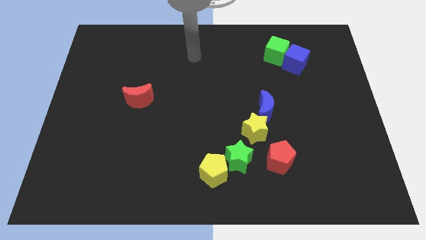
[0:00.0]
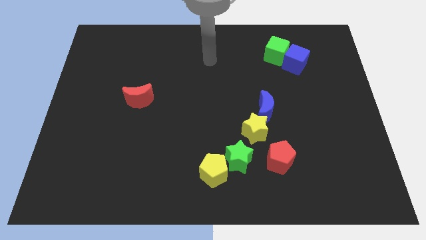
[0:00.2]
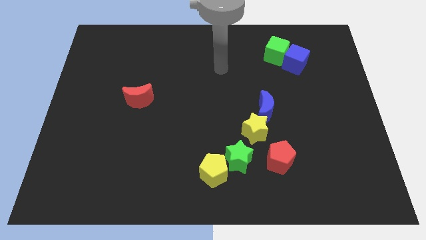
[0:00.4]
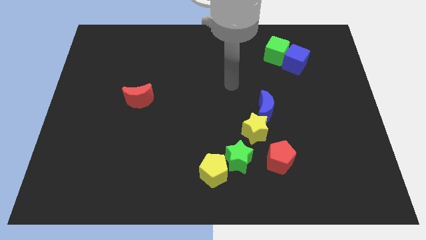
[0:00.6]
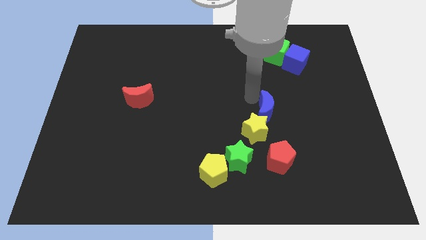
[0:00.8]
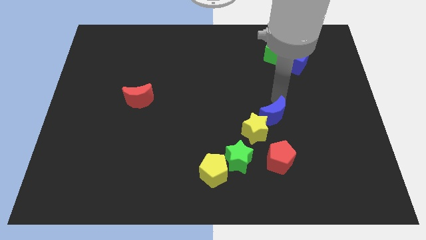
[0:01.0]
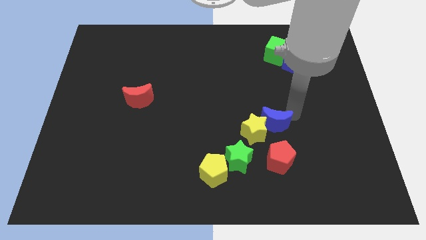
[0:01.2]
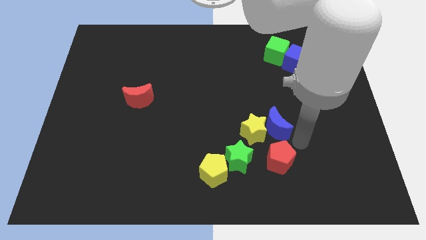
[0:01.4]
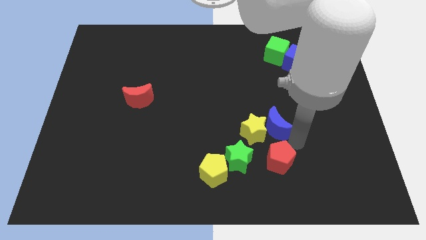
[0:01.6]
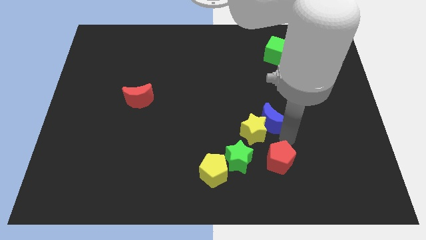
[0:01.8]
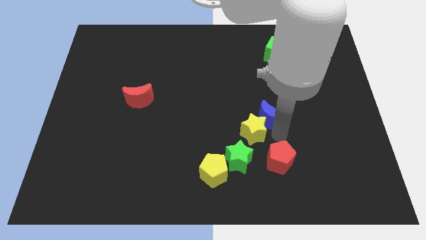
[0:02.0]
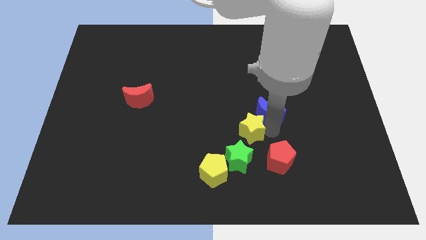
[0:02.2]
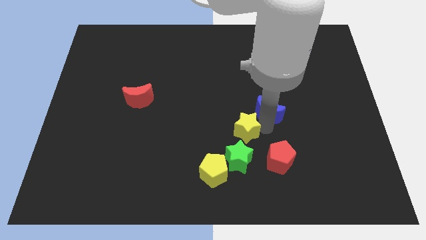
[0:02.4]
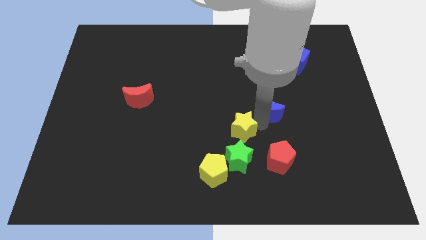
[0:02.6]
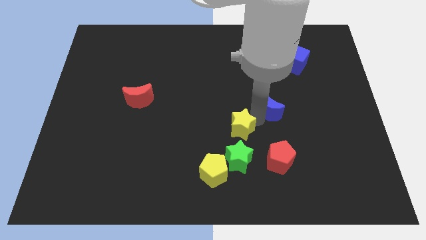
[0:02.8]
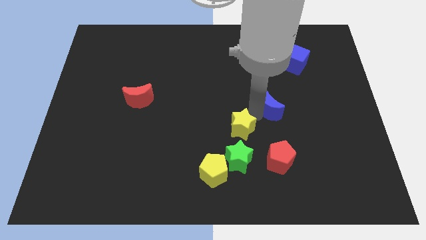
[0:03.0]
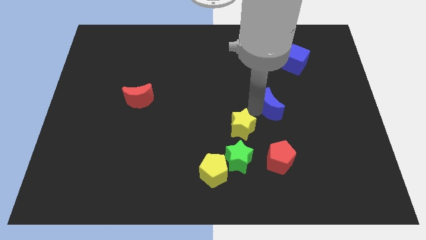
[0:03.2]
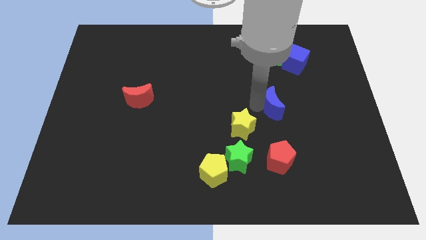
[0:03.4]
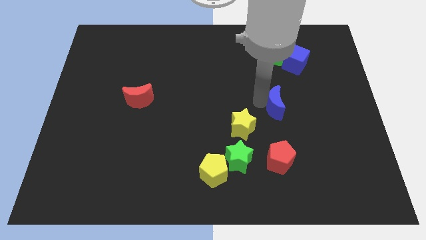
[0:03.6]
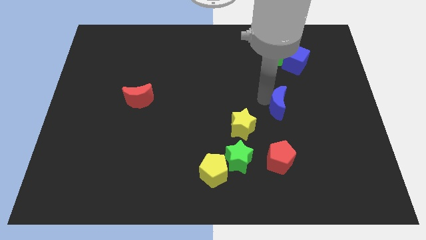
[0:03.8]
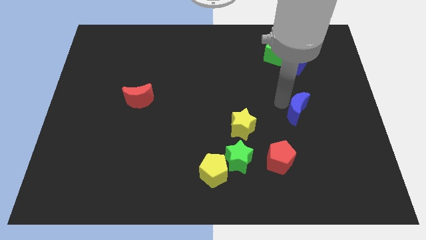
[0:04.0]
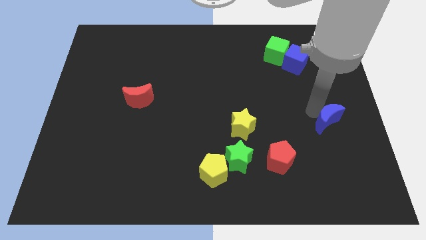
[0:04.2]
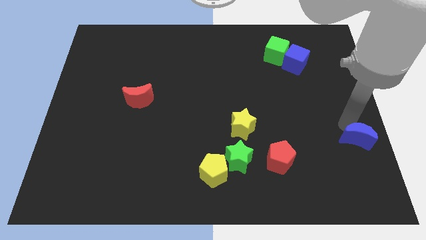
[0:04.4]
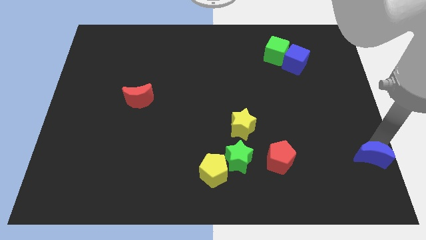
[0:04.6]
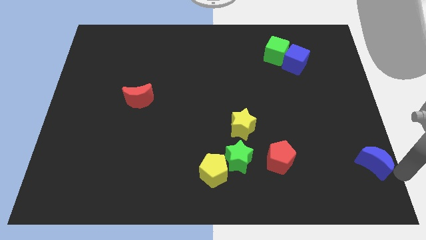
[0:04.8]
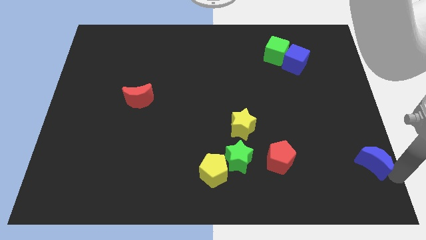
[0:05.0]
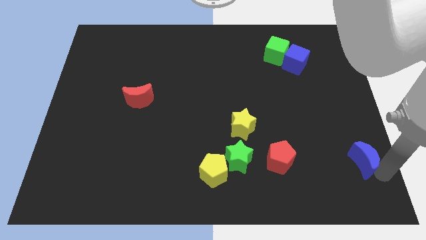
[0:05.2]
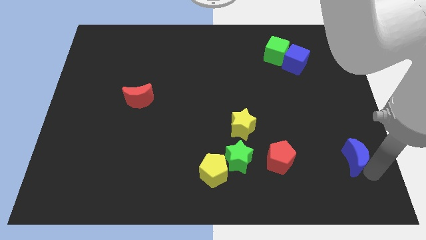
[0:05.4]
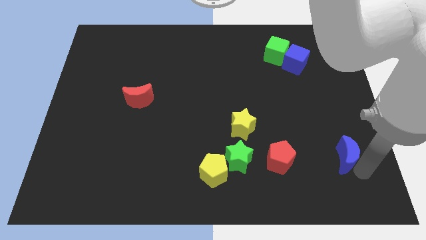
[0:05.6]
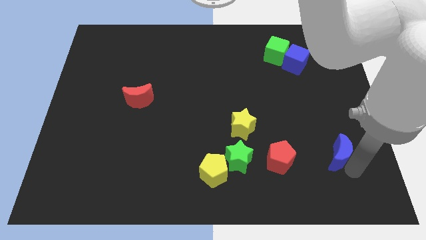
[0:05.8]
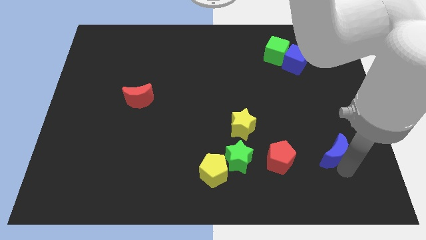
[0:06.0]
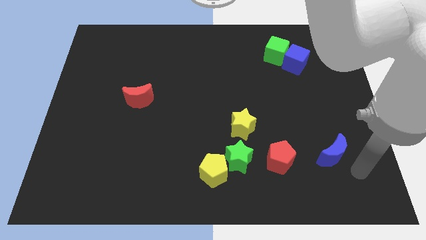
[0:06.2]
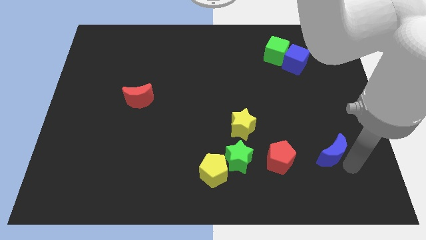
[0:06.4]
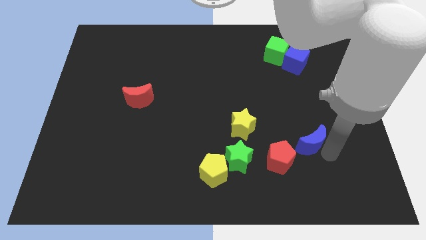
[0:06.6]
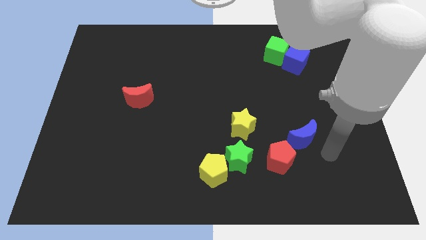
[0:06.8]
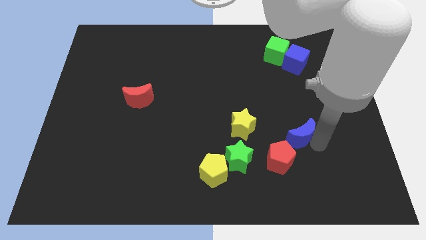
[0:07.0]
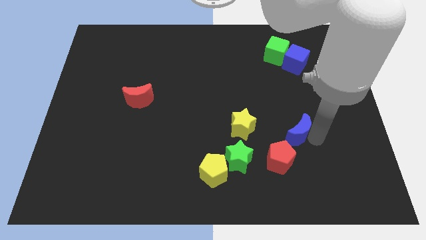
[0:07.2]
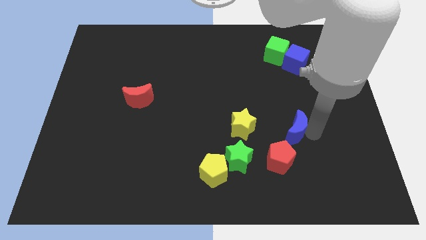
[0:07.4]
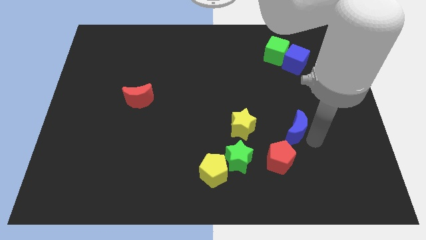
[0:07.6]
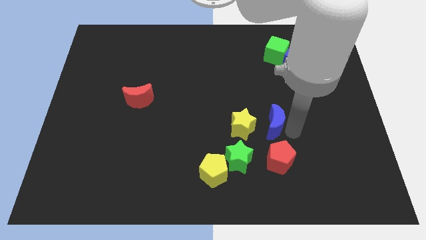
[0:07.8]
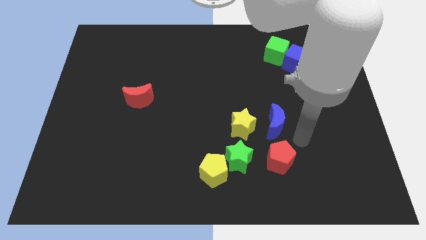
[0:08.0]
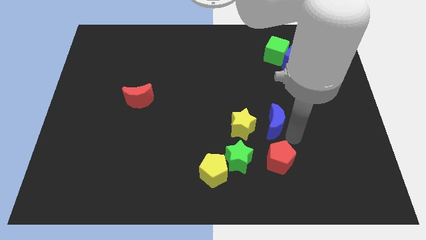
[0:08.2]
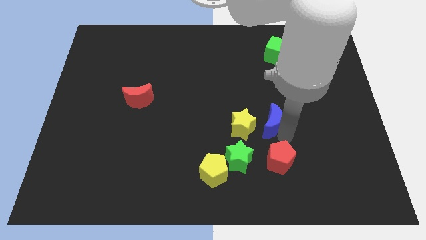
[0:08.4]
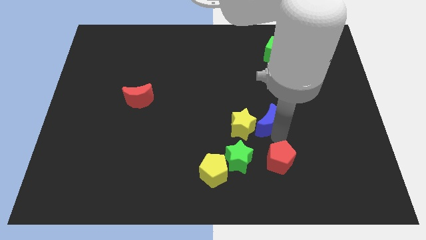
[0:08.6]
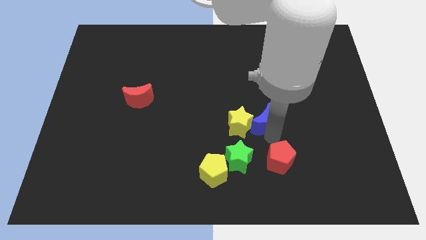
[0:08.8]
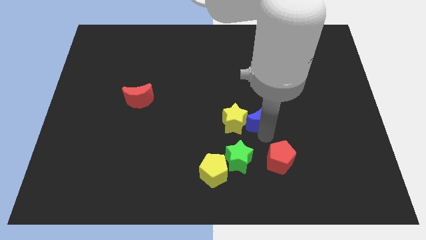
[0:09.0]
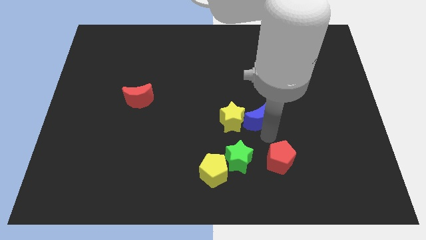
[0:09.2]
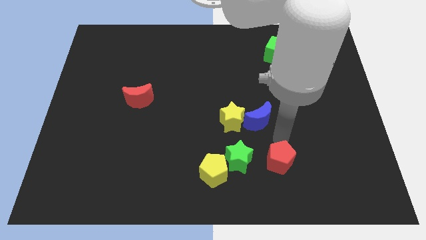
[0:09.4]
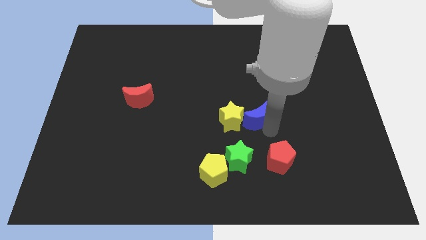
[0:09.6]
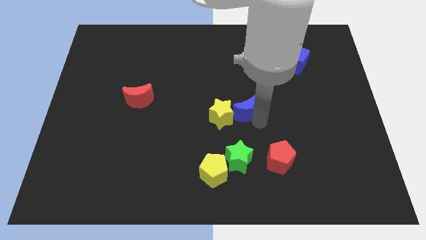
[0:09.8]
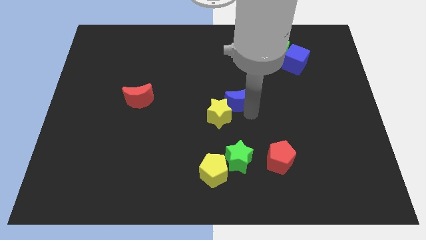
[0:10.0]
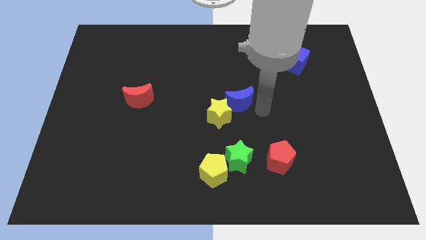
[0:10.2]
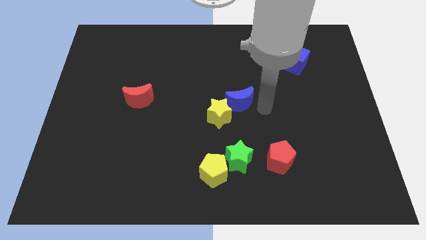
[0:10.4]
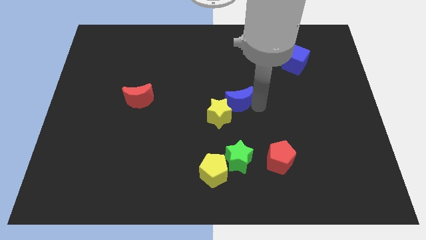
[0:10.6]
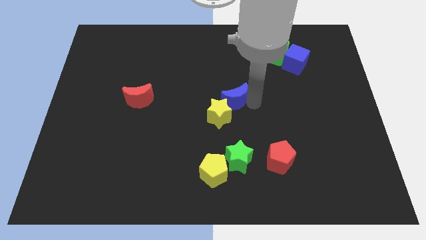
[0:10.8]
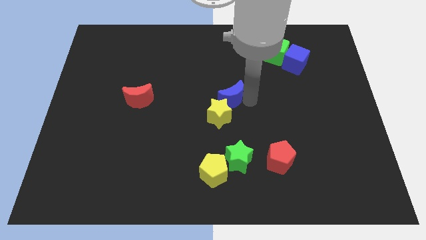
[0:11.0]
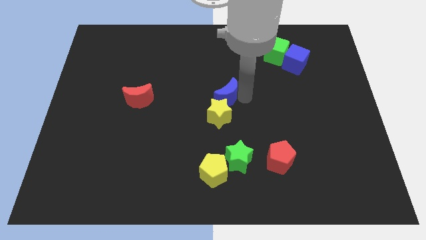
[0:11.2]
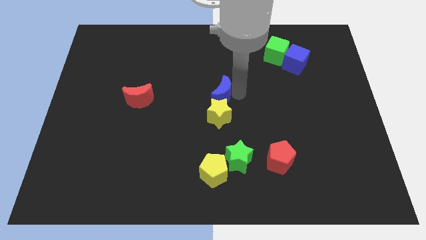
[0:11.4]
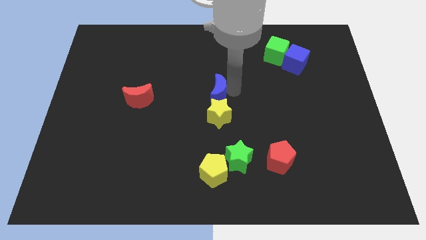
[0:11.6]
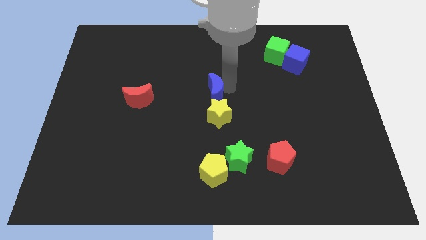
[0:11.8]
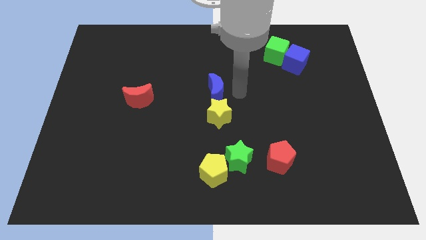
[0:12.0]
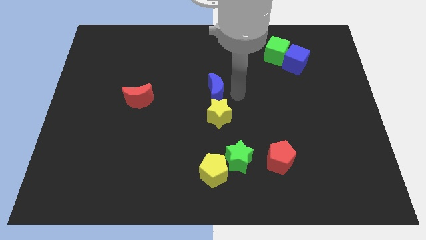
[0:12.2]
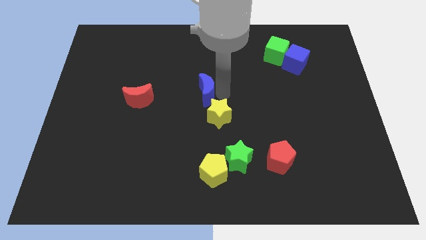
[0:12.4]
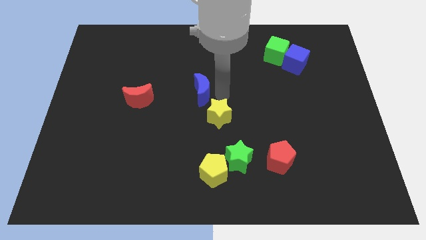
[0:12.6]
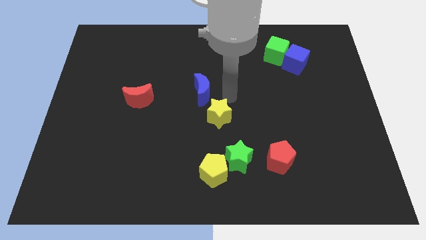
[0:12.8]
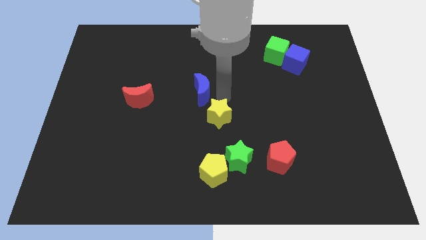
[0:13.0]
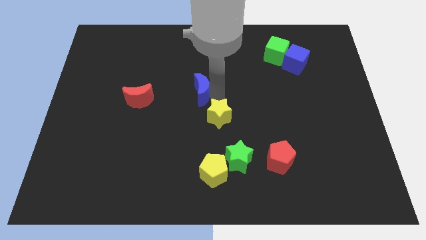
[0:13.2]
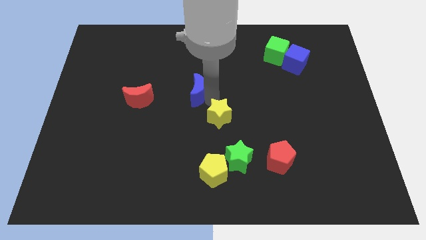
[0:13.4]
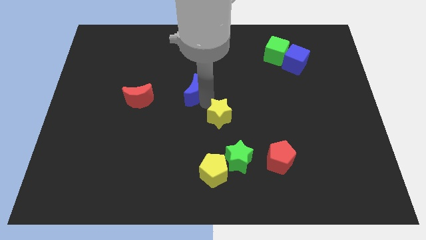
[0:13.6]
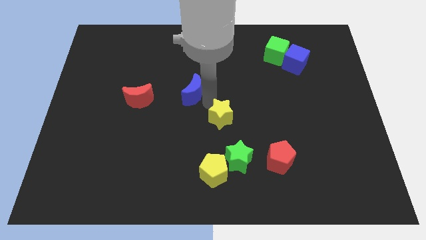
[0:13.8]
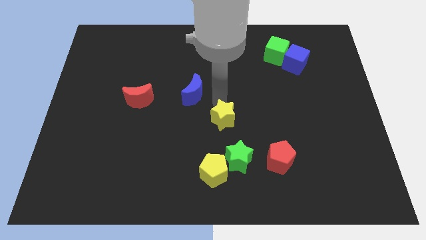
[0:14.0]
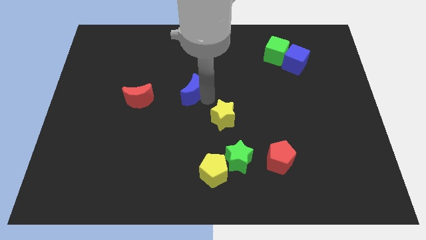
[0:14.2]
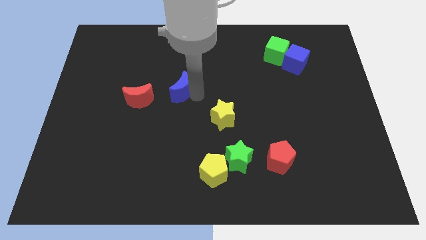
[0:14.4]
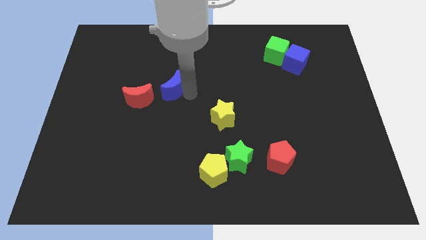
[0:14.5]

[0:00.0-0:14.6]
put the blue moon diagonally up and to the right of the red moon

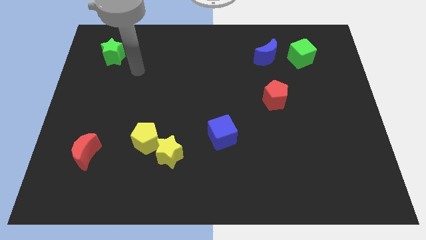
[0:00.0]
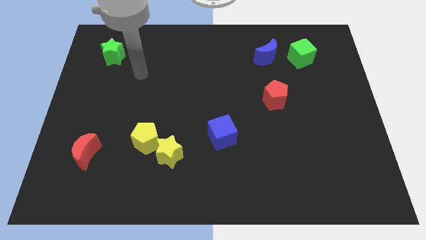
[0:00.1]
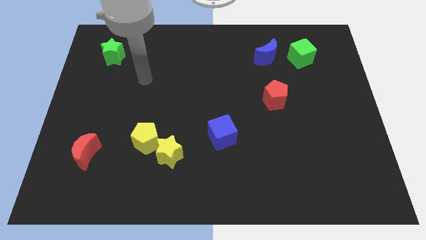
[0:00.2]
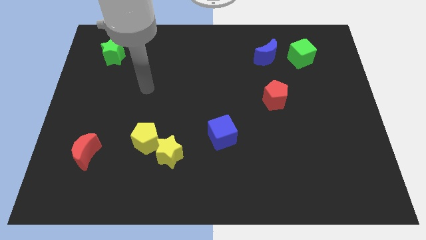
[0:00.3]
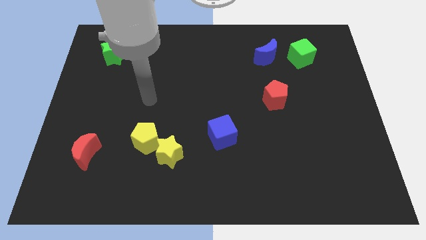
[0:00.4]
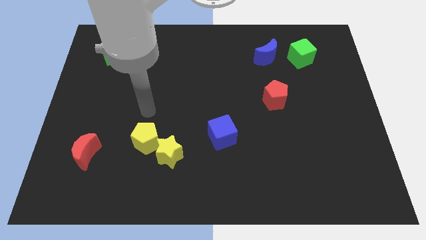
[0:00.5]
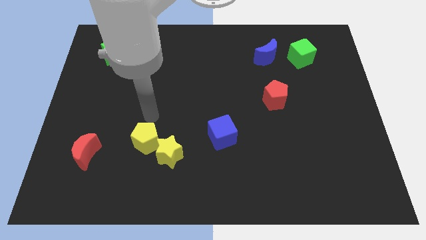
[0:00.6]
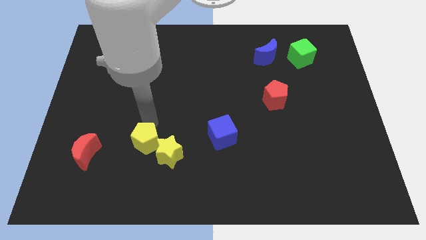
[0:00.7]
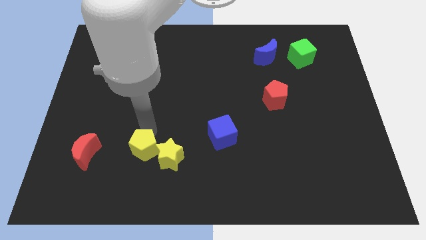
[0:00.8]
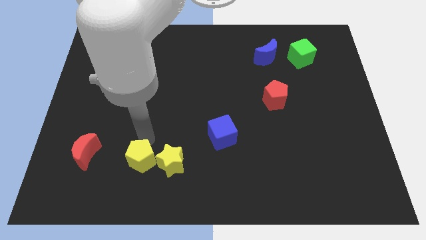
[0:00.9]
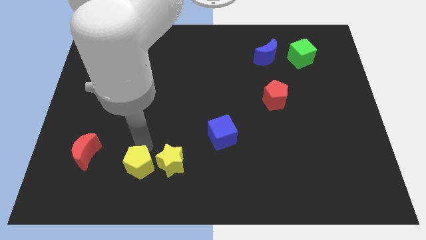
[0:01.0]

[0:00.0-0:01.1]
push the yellow pentagon to the bottom left side of the yellow star
